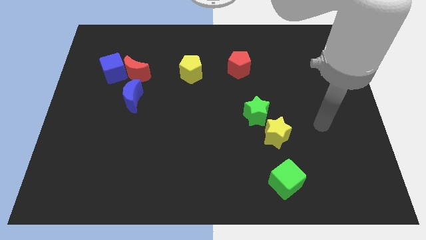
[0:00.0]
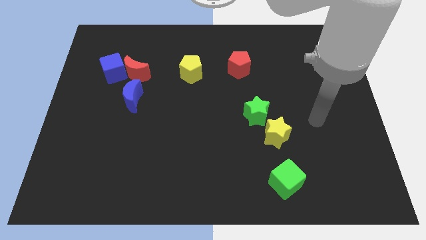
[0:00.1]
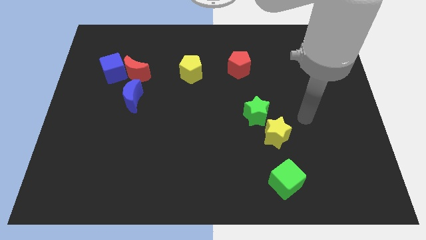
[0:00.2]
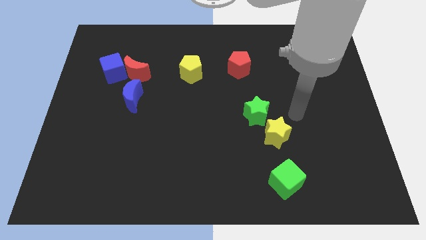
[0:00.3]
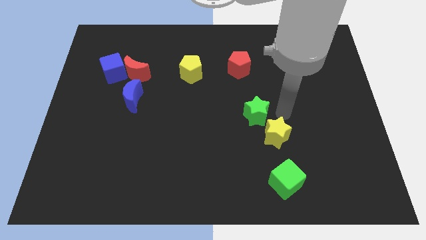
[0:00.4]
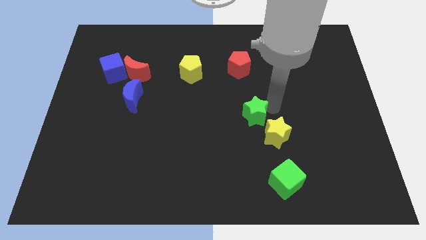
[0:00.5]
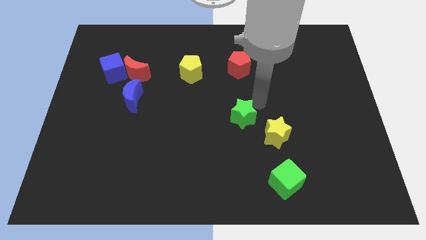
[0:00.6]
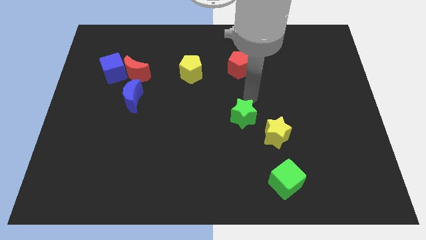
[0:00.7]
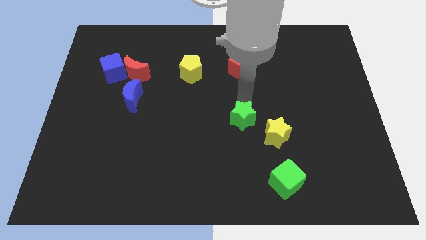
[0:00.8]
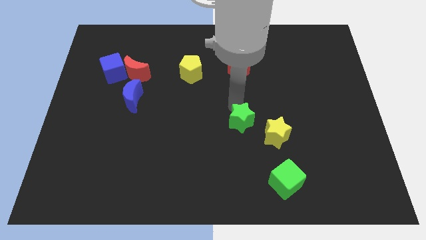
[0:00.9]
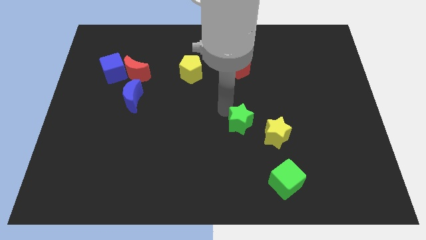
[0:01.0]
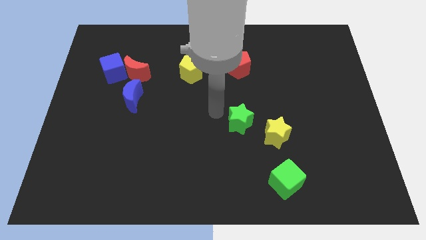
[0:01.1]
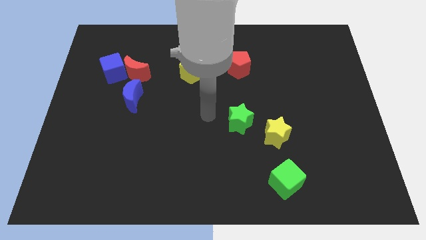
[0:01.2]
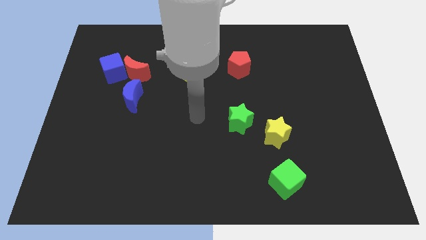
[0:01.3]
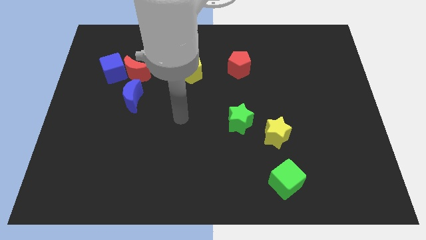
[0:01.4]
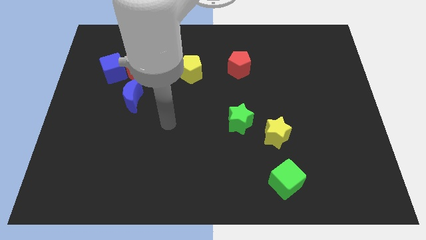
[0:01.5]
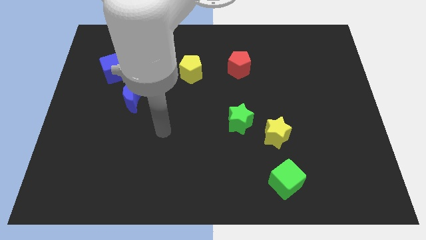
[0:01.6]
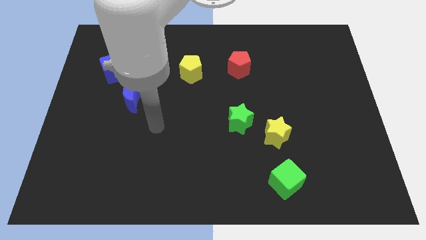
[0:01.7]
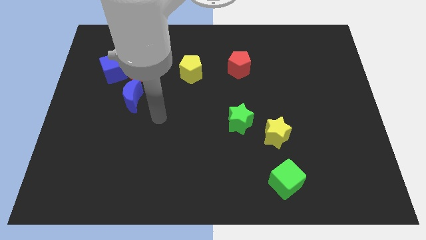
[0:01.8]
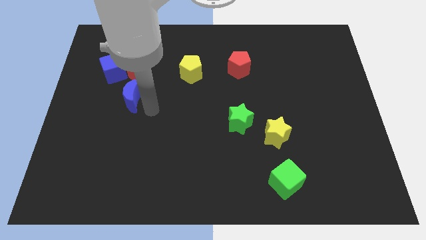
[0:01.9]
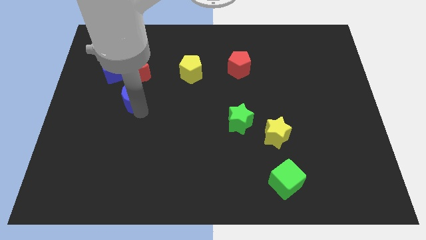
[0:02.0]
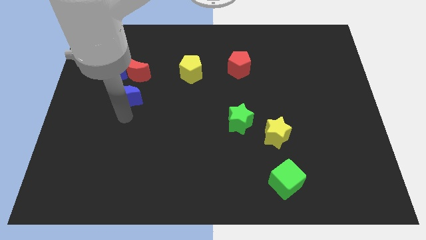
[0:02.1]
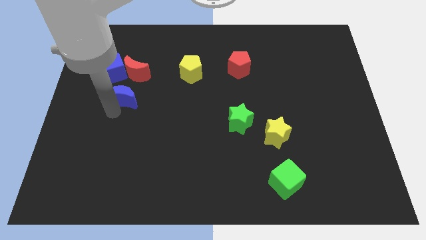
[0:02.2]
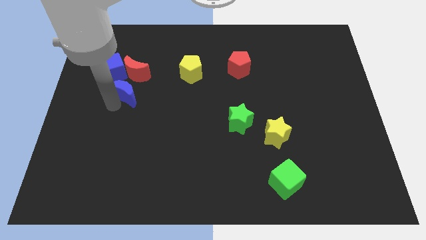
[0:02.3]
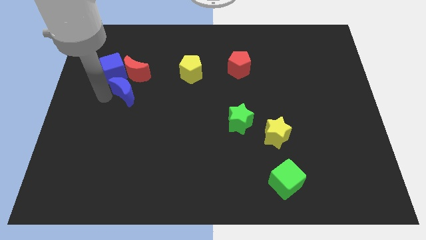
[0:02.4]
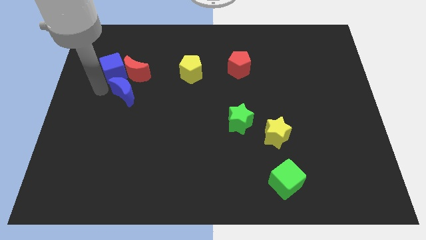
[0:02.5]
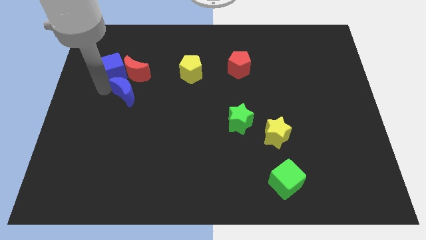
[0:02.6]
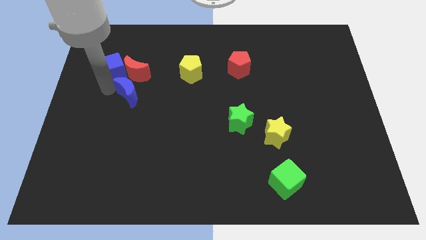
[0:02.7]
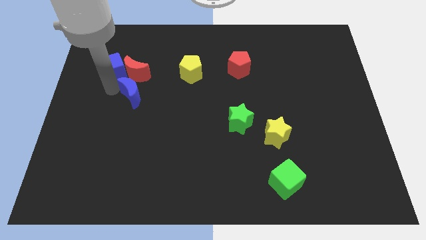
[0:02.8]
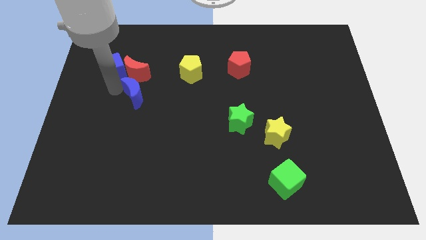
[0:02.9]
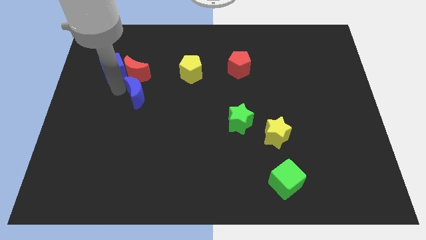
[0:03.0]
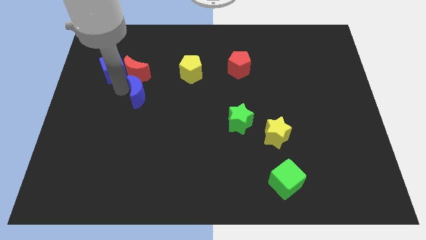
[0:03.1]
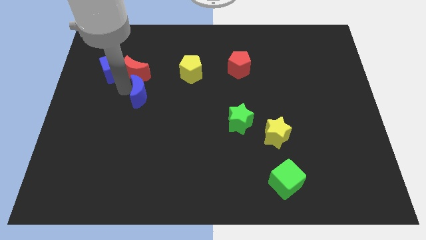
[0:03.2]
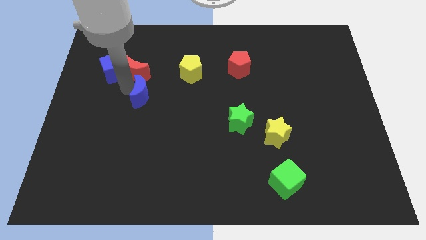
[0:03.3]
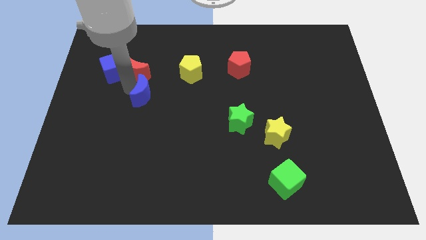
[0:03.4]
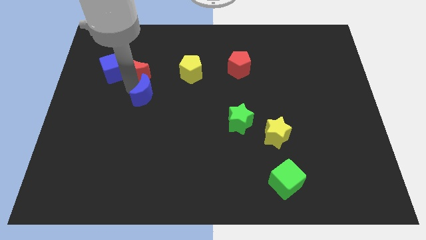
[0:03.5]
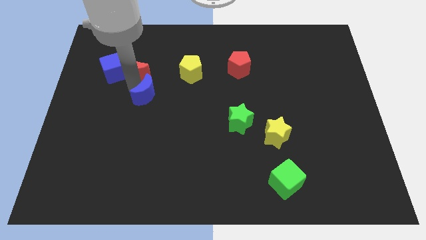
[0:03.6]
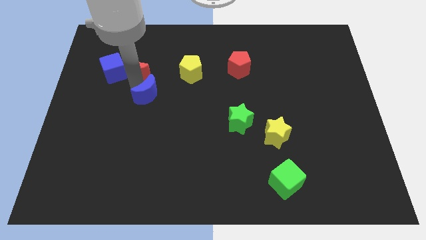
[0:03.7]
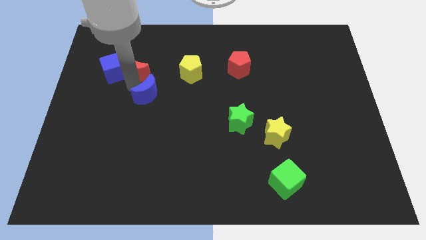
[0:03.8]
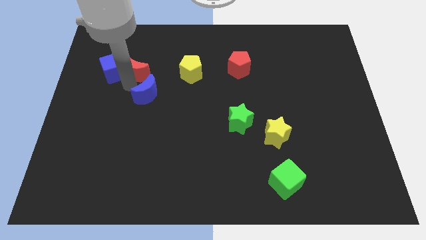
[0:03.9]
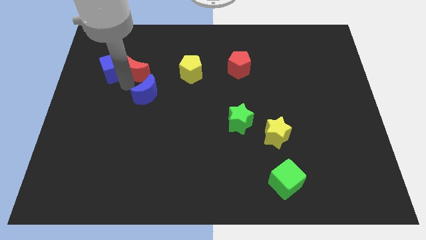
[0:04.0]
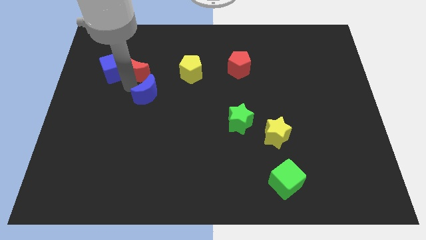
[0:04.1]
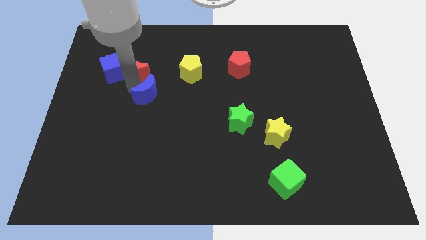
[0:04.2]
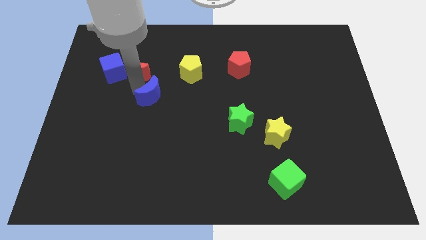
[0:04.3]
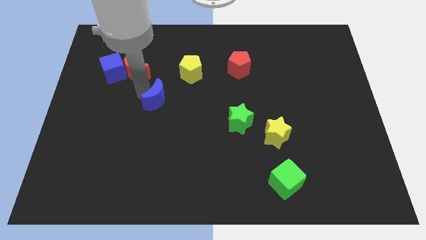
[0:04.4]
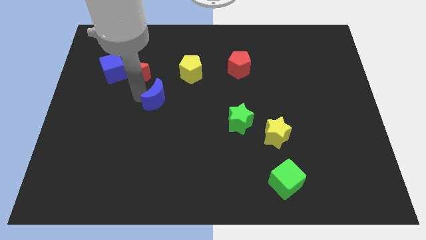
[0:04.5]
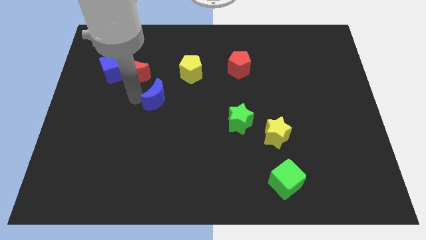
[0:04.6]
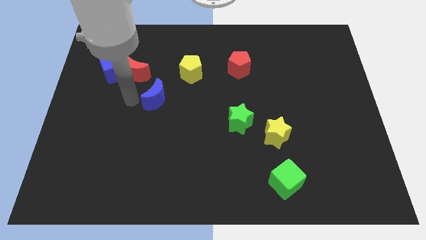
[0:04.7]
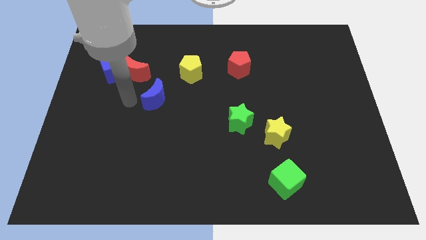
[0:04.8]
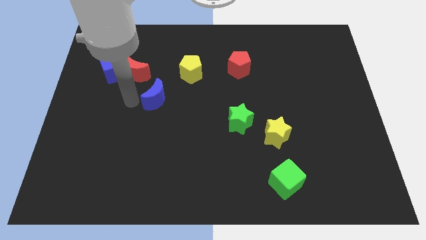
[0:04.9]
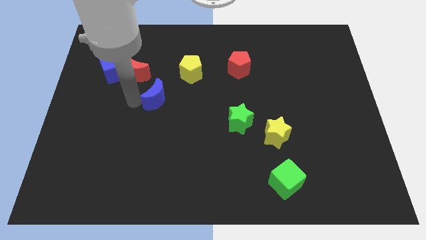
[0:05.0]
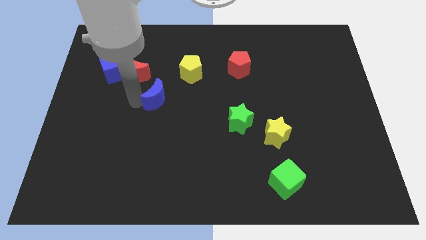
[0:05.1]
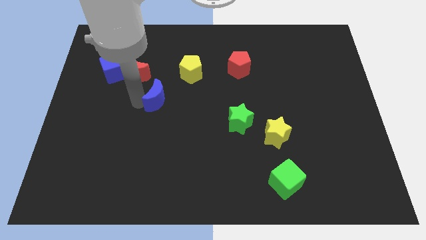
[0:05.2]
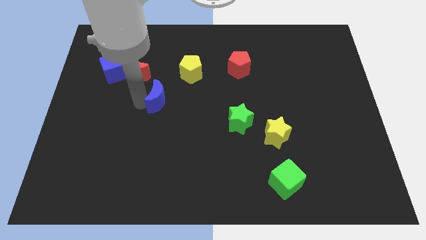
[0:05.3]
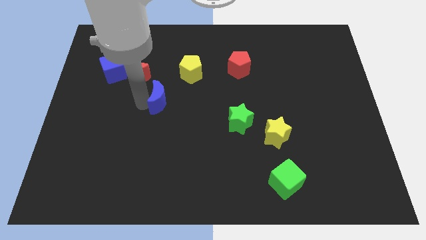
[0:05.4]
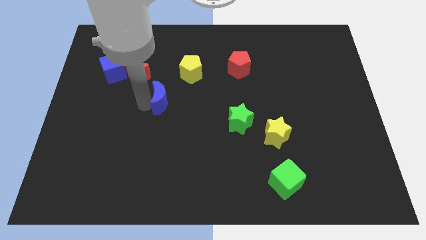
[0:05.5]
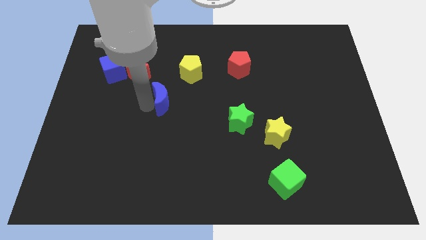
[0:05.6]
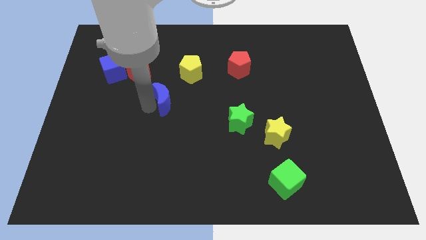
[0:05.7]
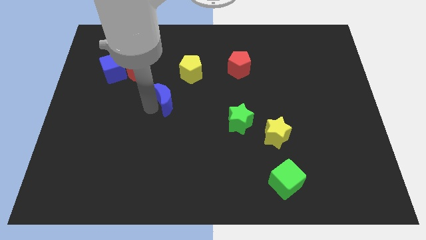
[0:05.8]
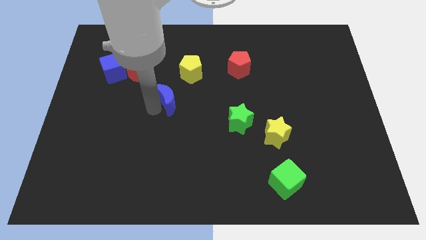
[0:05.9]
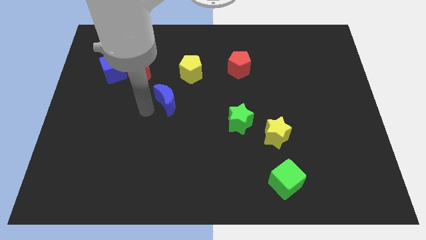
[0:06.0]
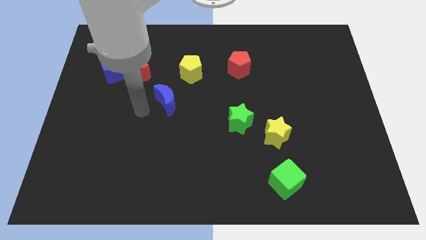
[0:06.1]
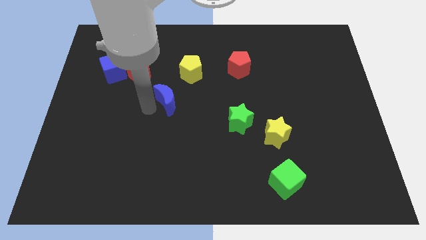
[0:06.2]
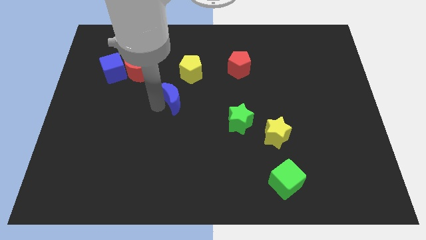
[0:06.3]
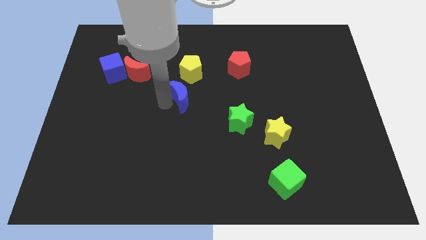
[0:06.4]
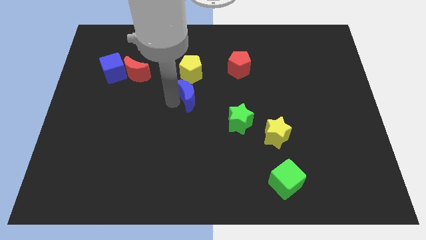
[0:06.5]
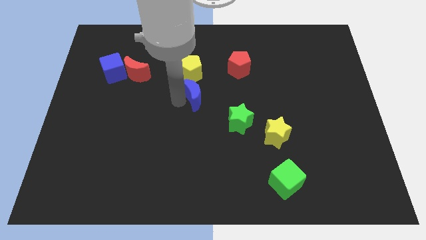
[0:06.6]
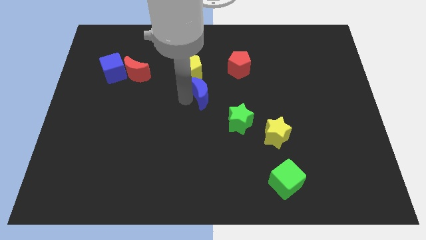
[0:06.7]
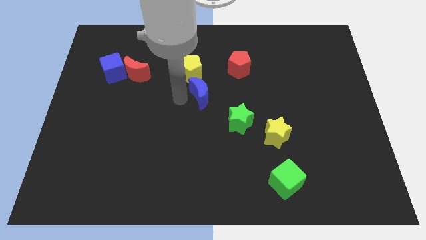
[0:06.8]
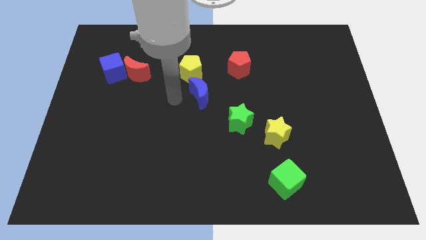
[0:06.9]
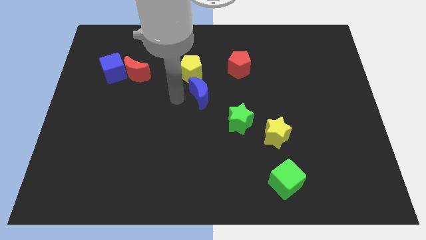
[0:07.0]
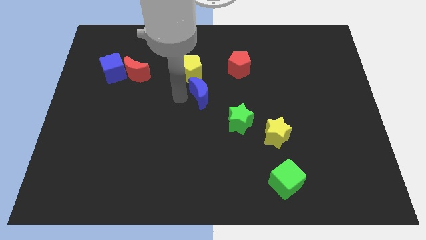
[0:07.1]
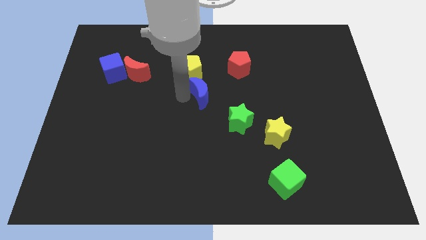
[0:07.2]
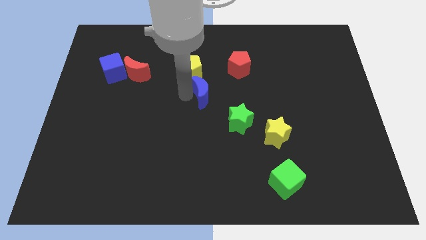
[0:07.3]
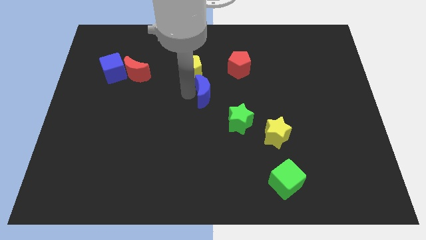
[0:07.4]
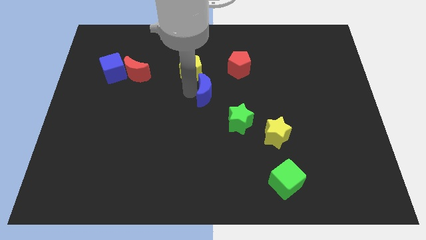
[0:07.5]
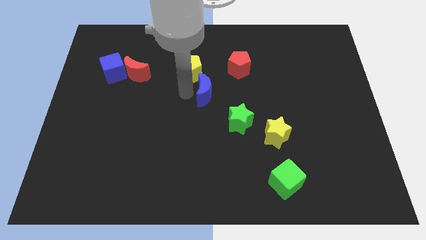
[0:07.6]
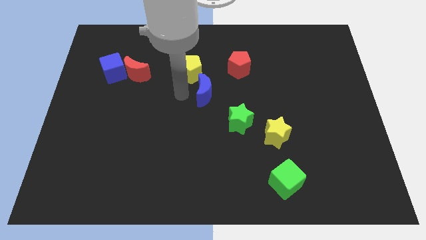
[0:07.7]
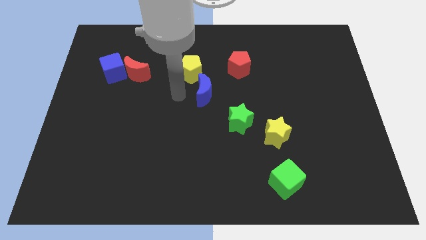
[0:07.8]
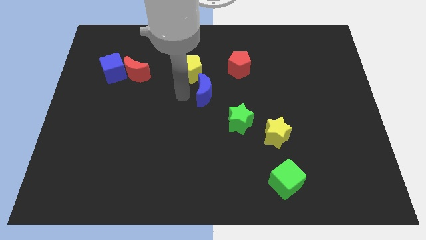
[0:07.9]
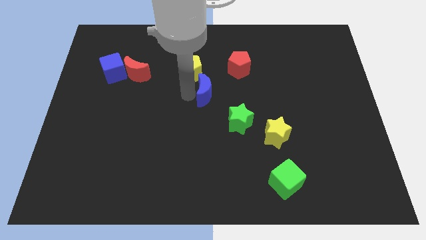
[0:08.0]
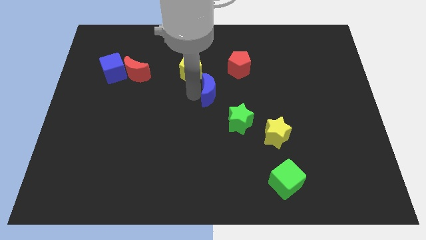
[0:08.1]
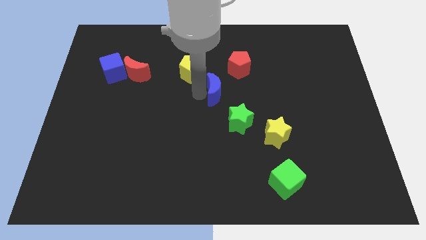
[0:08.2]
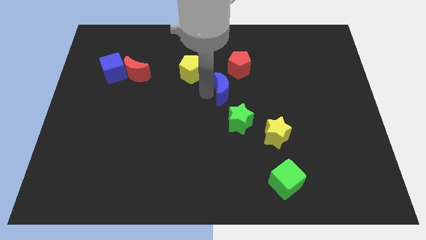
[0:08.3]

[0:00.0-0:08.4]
slide the blue moon right
